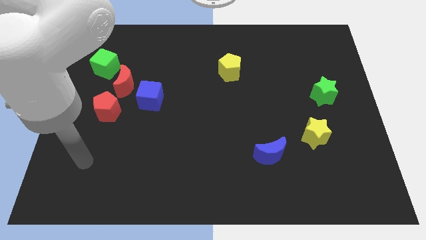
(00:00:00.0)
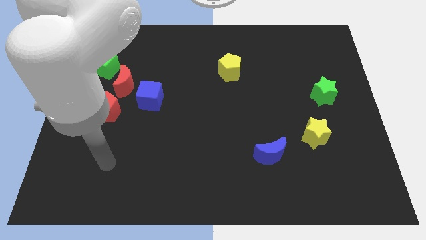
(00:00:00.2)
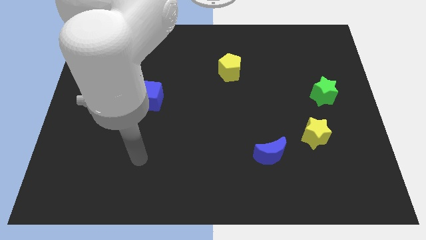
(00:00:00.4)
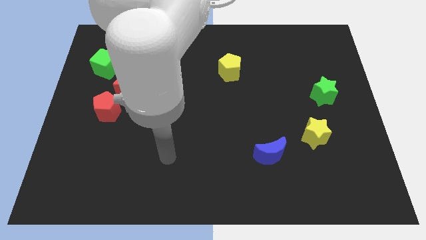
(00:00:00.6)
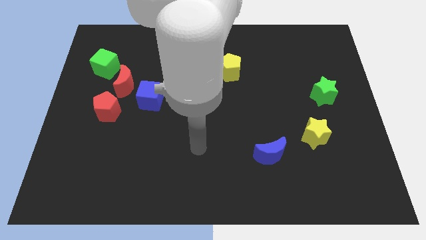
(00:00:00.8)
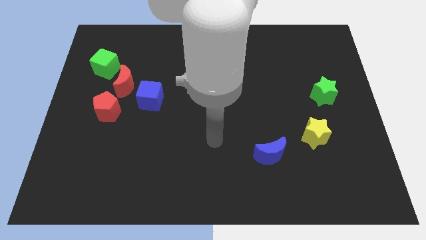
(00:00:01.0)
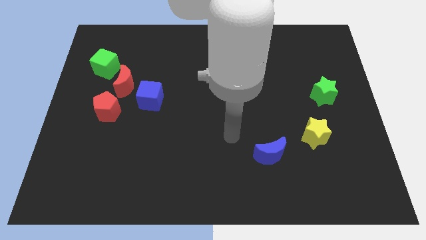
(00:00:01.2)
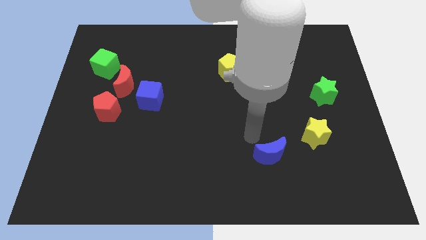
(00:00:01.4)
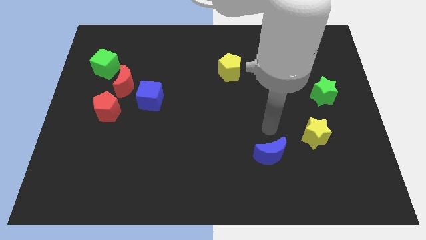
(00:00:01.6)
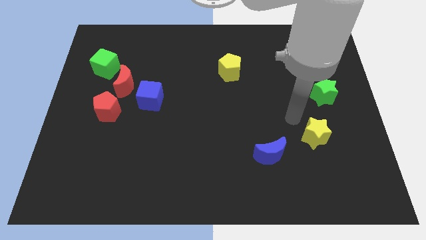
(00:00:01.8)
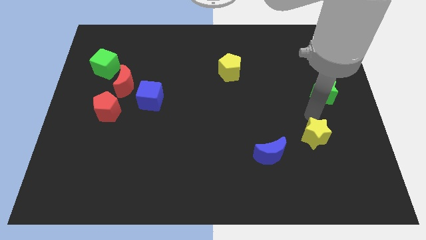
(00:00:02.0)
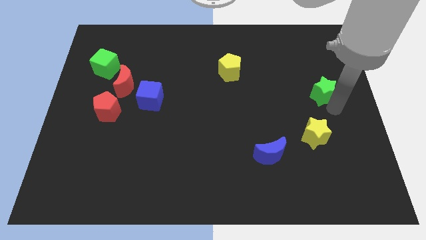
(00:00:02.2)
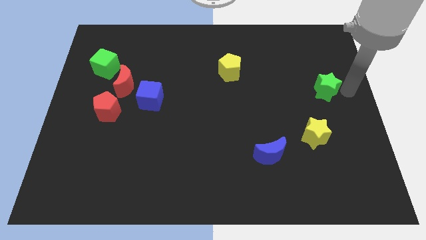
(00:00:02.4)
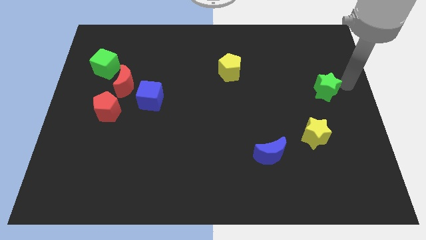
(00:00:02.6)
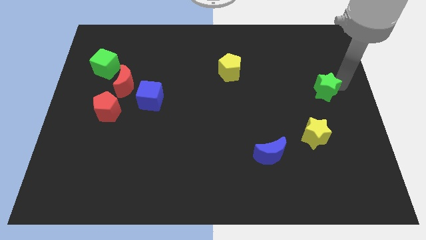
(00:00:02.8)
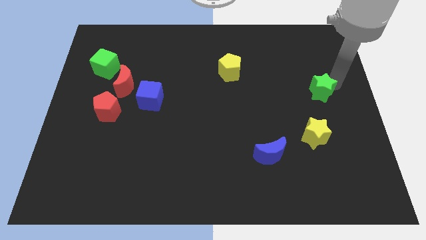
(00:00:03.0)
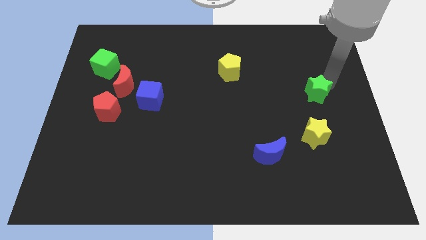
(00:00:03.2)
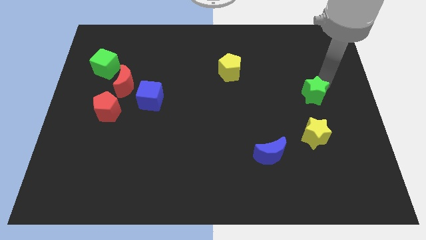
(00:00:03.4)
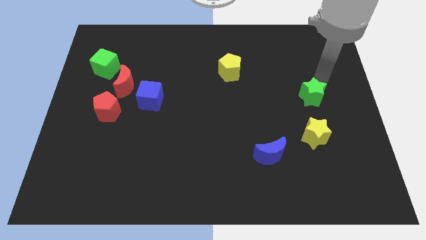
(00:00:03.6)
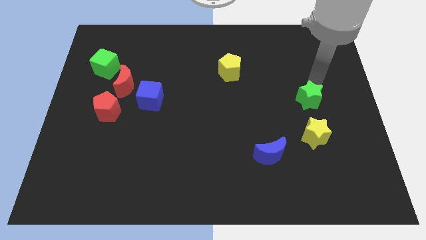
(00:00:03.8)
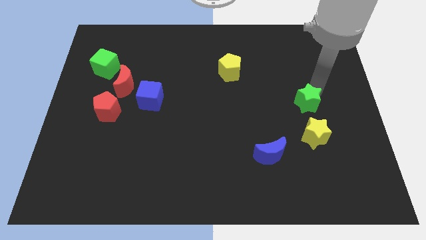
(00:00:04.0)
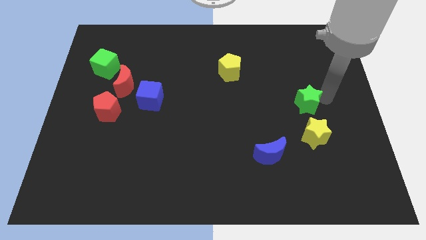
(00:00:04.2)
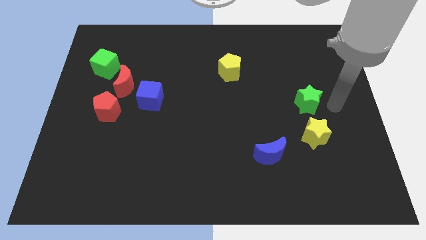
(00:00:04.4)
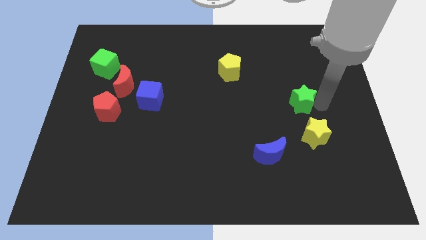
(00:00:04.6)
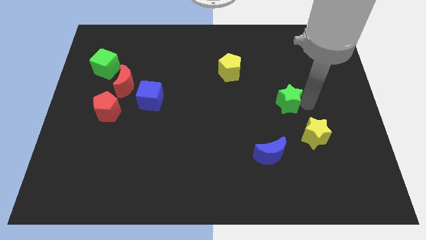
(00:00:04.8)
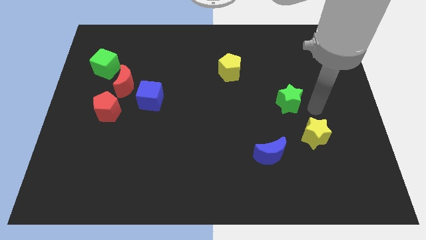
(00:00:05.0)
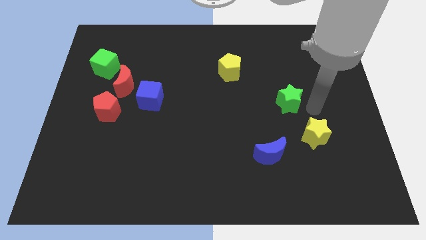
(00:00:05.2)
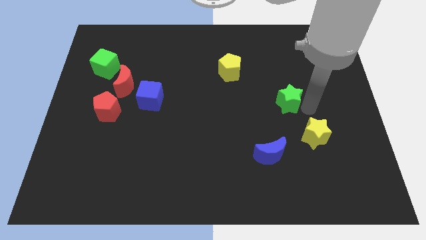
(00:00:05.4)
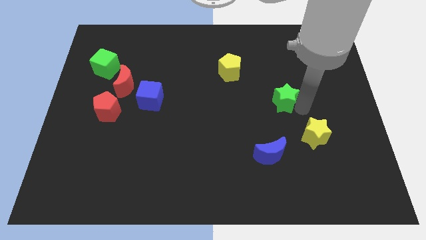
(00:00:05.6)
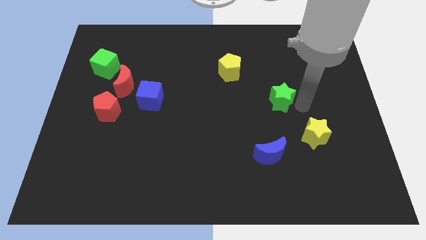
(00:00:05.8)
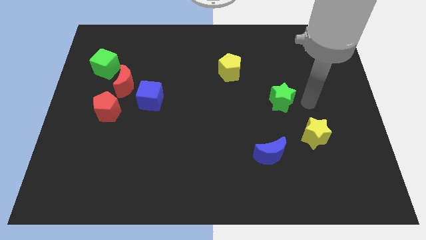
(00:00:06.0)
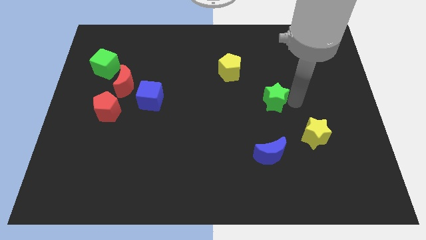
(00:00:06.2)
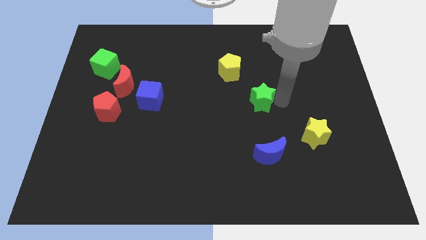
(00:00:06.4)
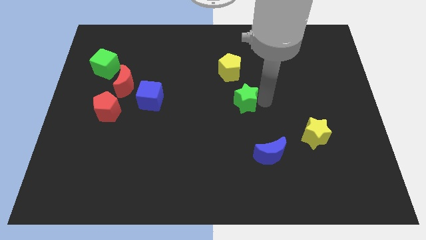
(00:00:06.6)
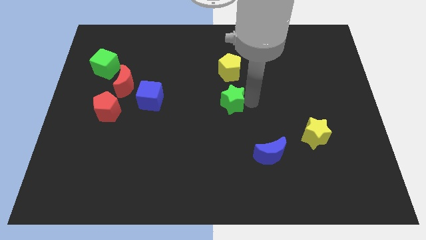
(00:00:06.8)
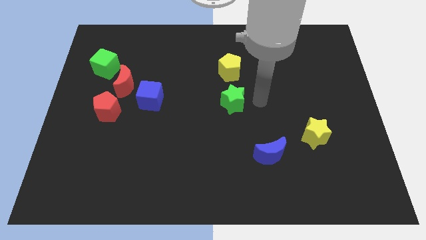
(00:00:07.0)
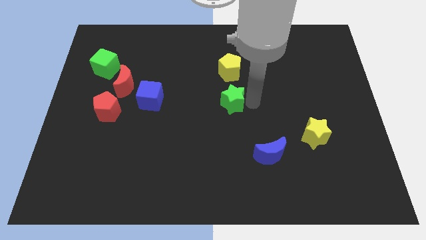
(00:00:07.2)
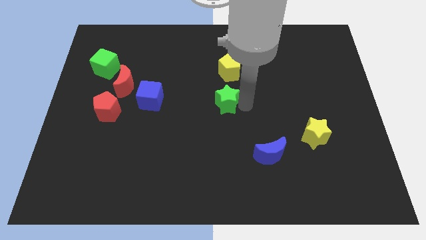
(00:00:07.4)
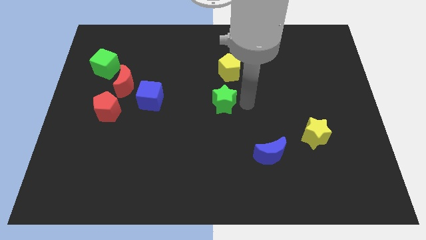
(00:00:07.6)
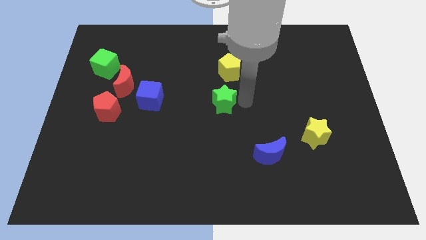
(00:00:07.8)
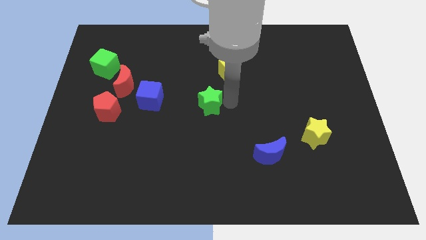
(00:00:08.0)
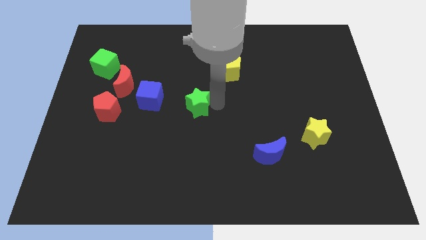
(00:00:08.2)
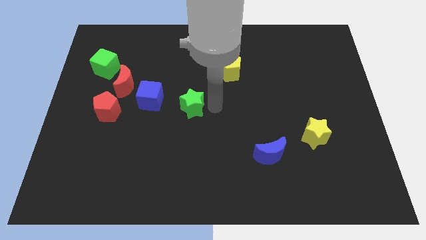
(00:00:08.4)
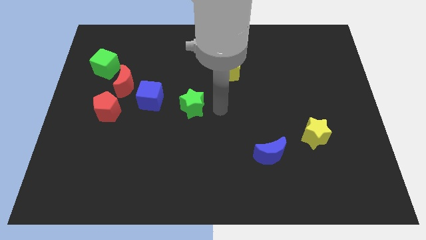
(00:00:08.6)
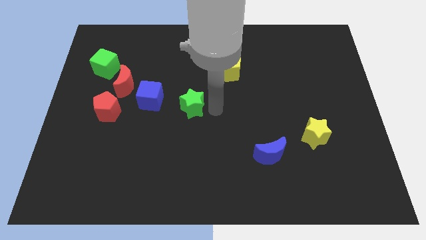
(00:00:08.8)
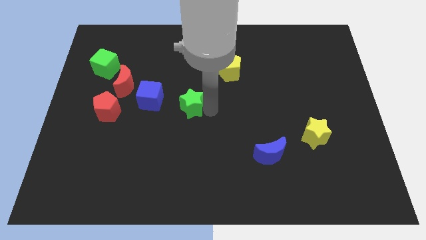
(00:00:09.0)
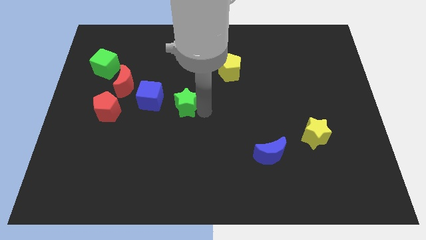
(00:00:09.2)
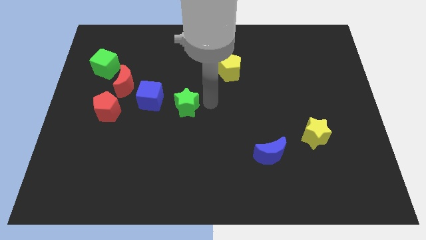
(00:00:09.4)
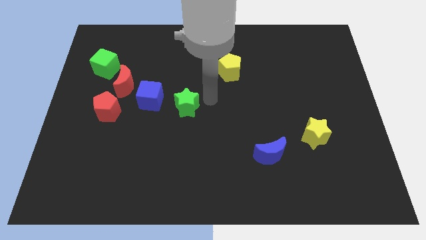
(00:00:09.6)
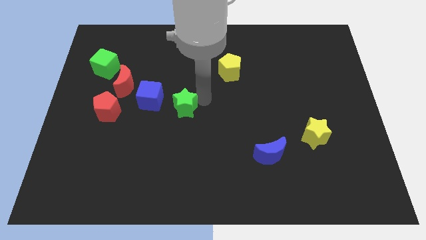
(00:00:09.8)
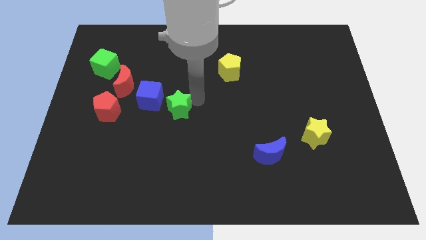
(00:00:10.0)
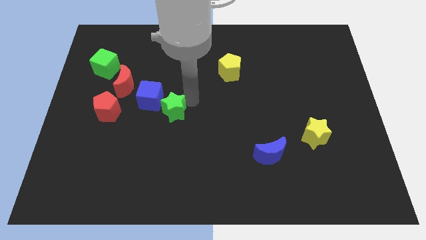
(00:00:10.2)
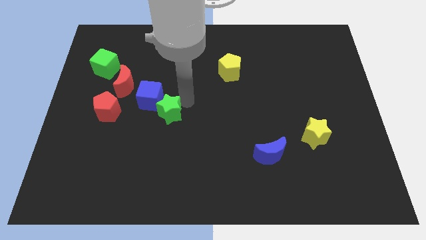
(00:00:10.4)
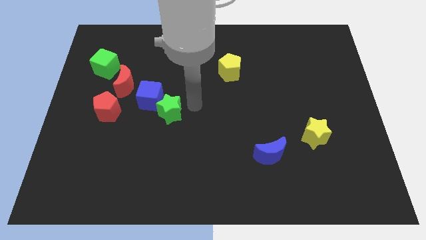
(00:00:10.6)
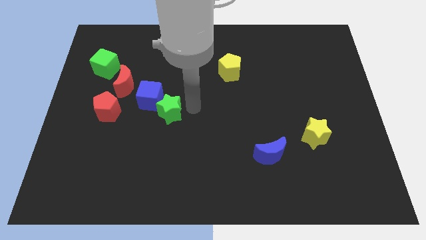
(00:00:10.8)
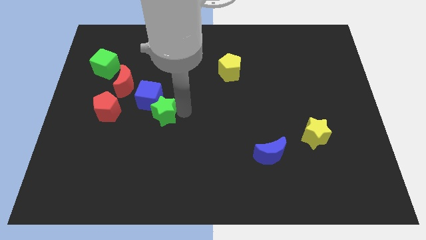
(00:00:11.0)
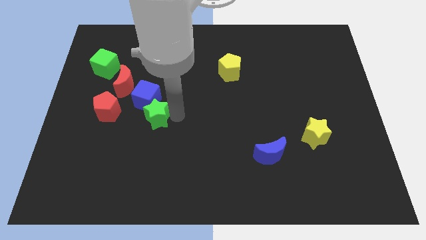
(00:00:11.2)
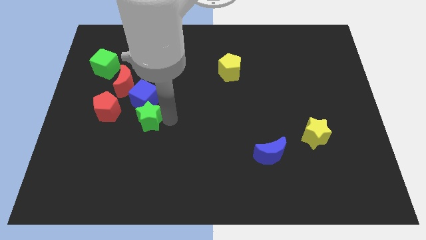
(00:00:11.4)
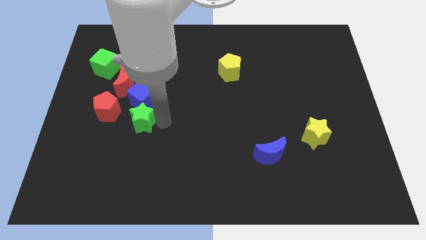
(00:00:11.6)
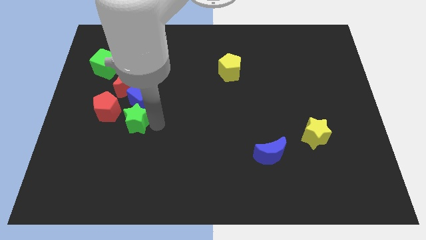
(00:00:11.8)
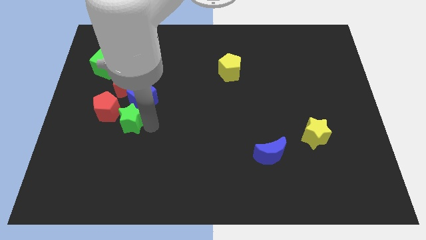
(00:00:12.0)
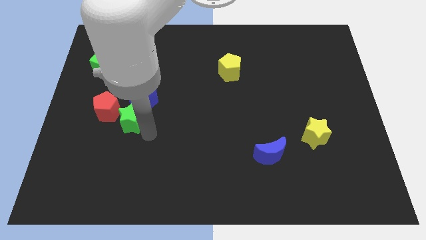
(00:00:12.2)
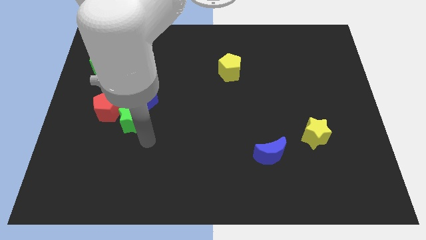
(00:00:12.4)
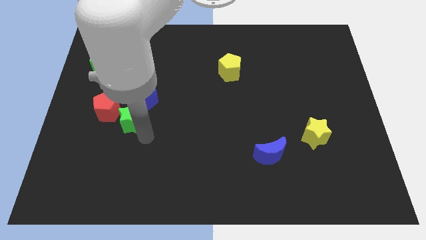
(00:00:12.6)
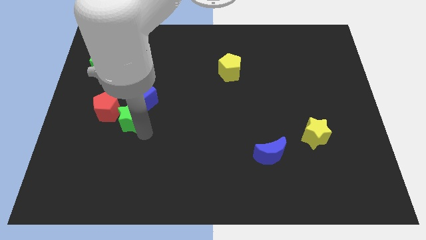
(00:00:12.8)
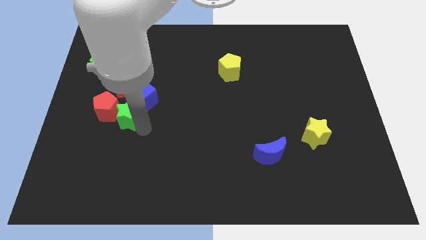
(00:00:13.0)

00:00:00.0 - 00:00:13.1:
move the green star towards the red pentagon
